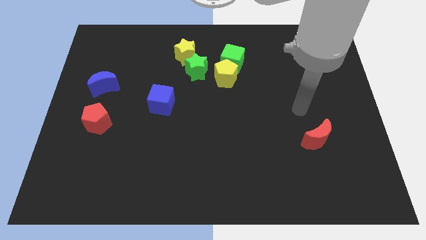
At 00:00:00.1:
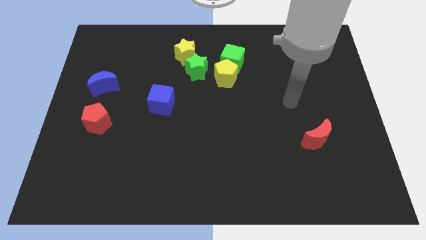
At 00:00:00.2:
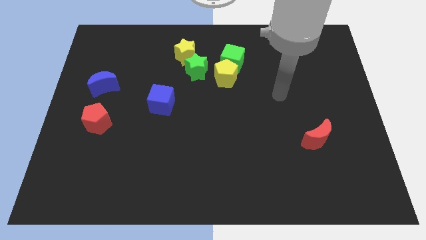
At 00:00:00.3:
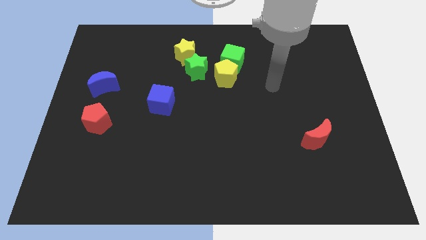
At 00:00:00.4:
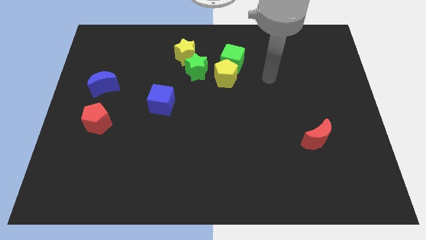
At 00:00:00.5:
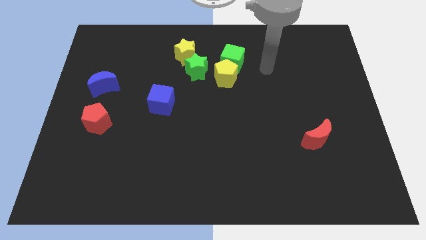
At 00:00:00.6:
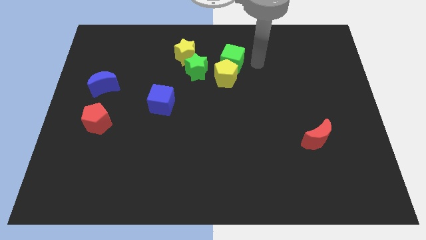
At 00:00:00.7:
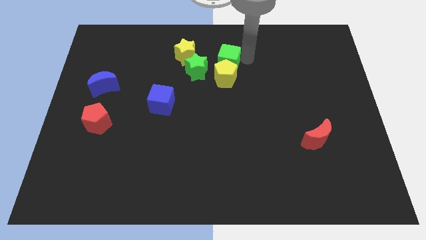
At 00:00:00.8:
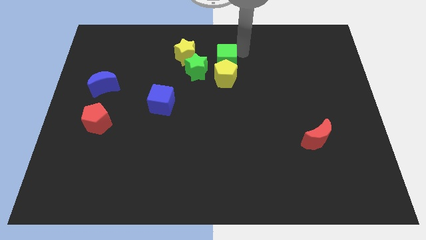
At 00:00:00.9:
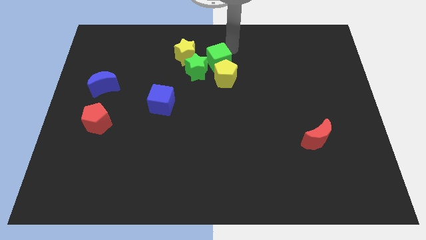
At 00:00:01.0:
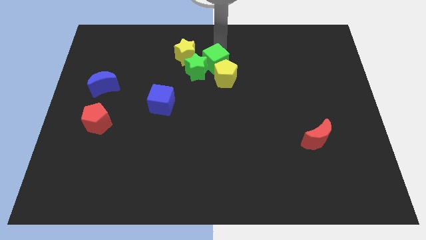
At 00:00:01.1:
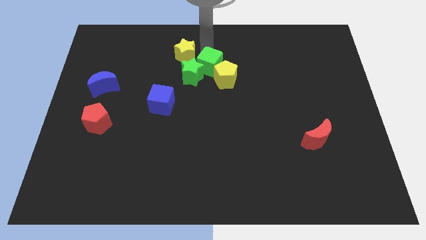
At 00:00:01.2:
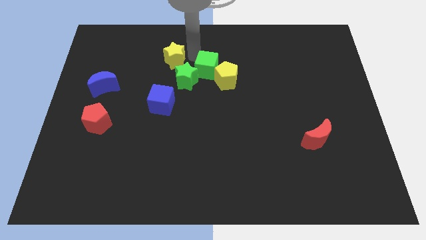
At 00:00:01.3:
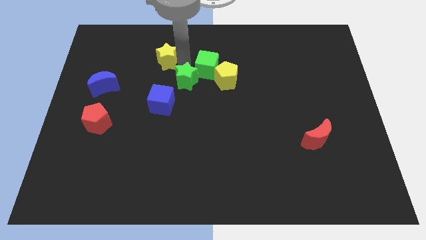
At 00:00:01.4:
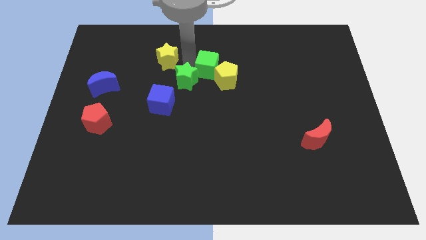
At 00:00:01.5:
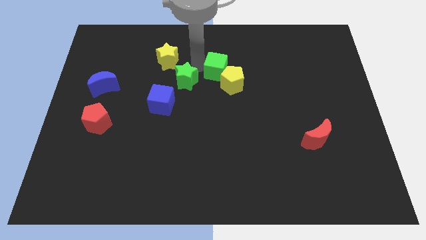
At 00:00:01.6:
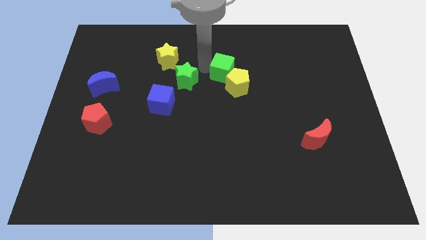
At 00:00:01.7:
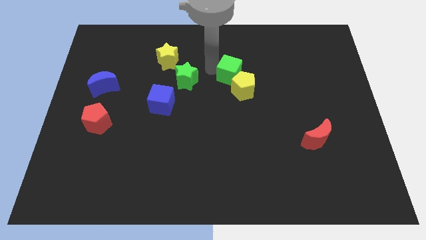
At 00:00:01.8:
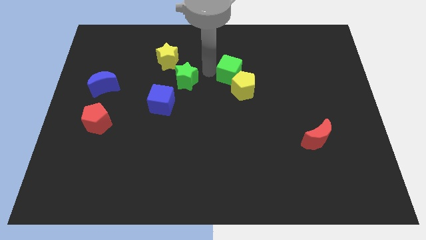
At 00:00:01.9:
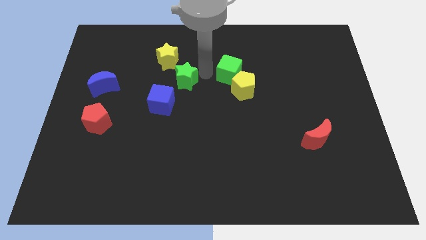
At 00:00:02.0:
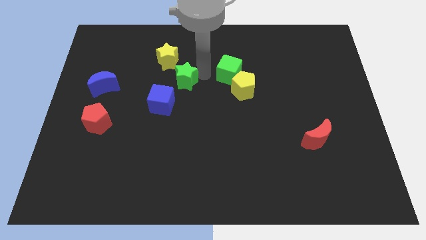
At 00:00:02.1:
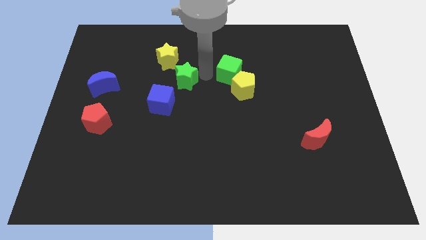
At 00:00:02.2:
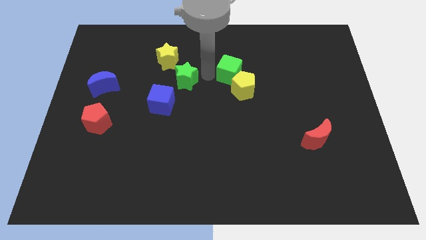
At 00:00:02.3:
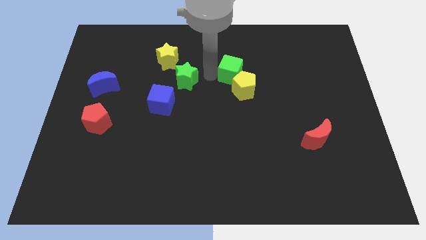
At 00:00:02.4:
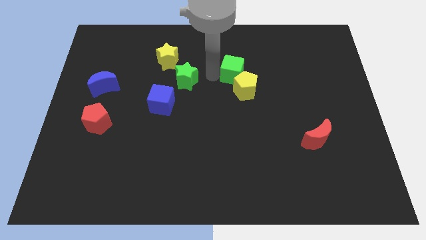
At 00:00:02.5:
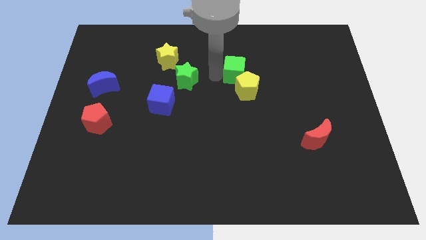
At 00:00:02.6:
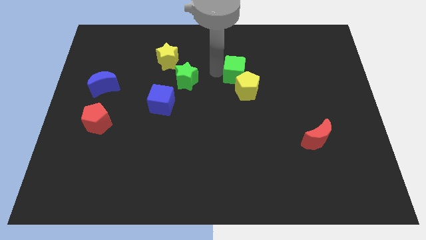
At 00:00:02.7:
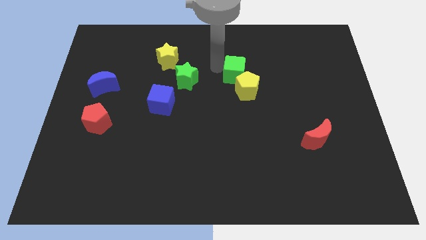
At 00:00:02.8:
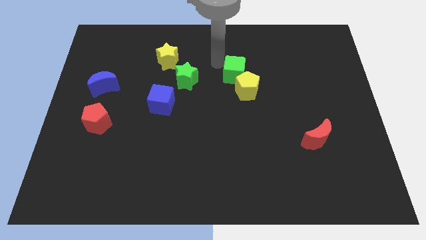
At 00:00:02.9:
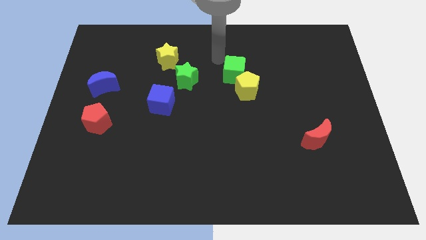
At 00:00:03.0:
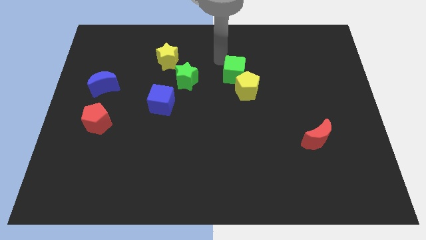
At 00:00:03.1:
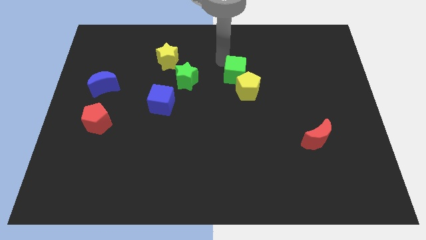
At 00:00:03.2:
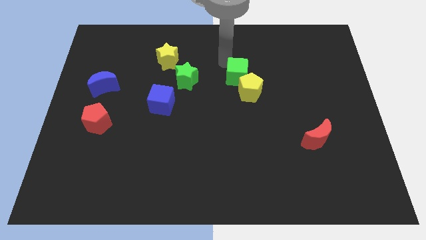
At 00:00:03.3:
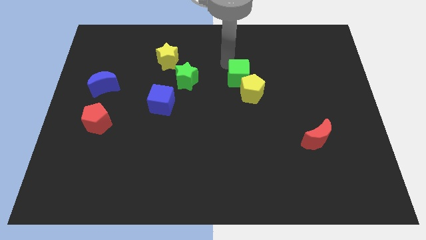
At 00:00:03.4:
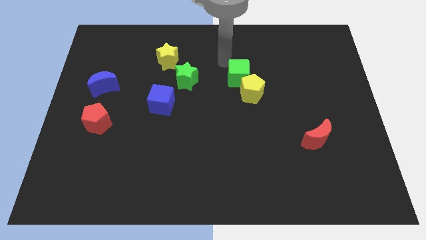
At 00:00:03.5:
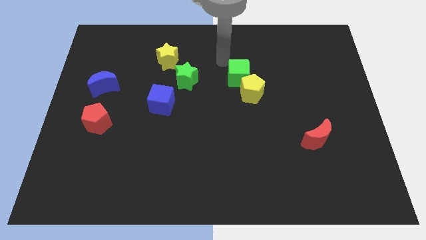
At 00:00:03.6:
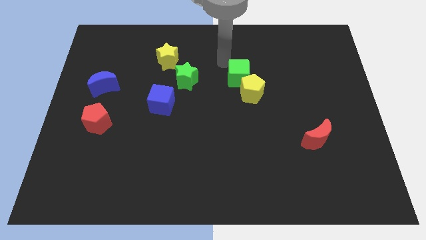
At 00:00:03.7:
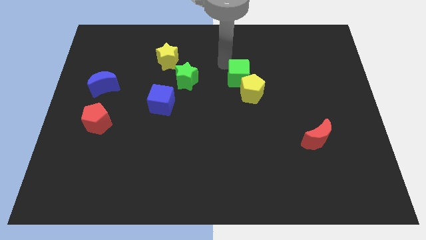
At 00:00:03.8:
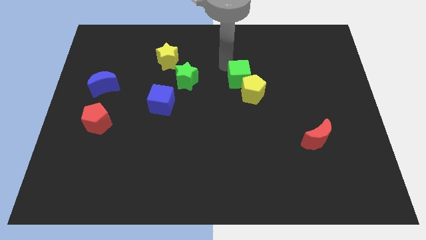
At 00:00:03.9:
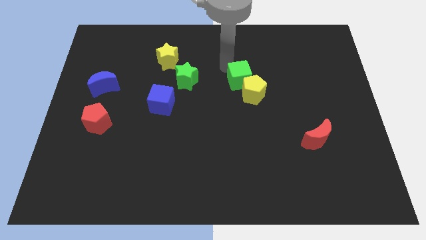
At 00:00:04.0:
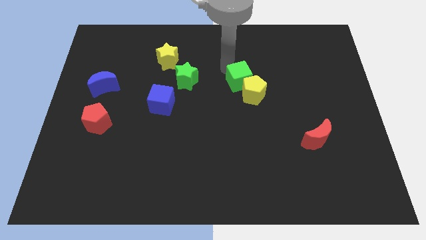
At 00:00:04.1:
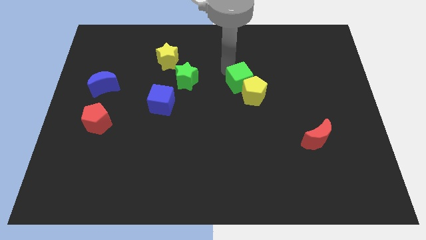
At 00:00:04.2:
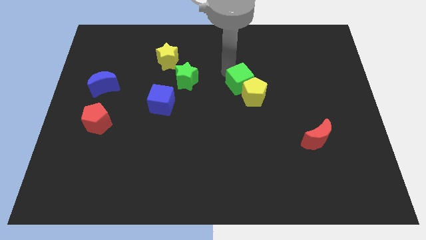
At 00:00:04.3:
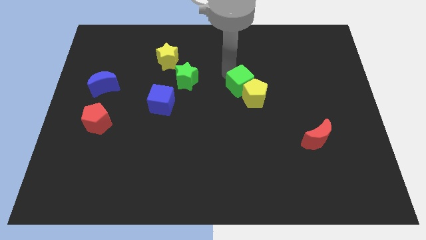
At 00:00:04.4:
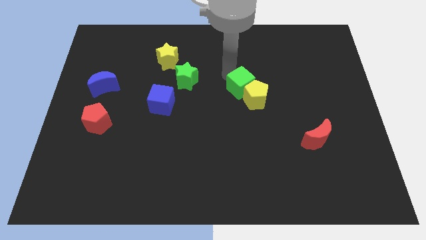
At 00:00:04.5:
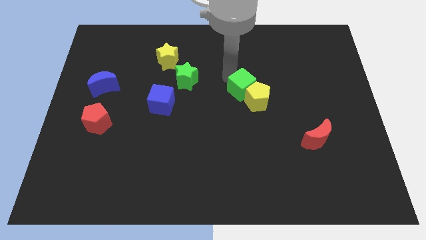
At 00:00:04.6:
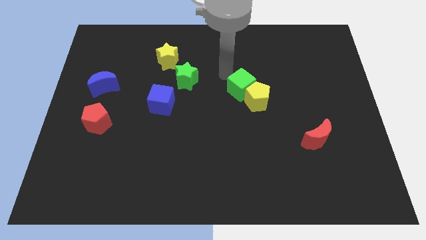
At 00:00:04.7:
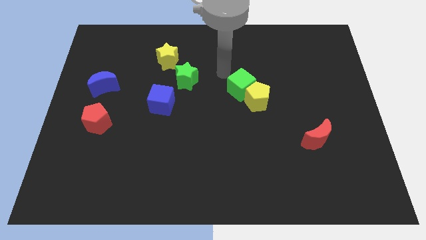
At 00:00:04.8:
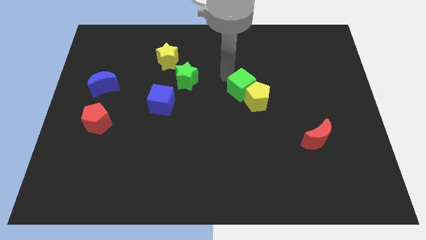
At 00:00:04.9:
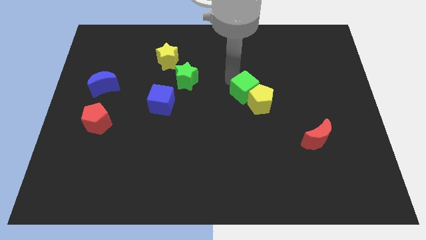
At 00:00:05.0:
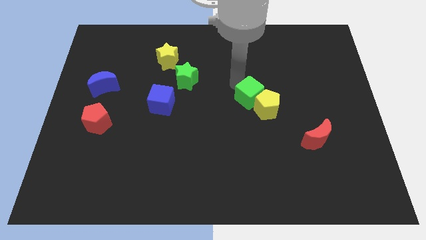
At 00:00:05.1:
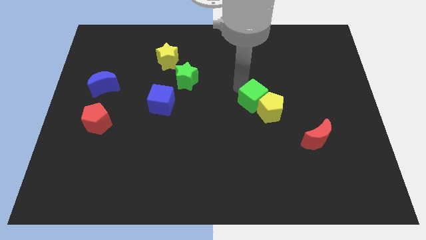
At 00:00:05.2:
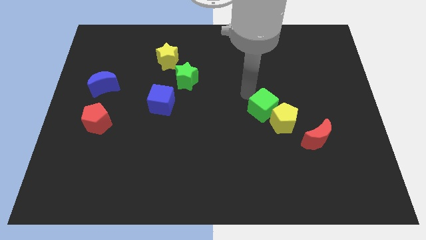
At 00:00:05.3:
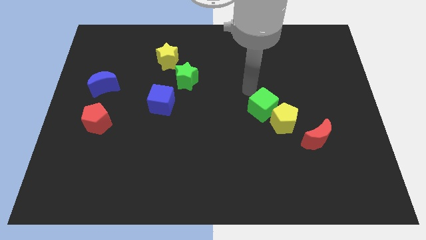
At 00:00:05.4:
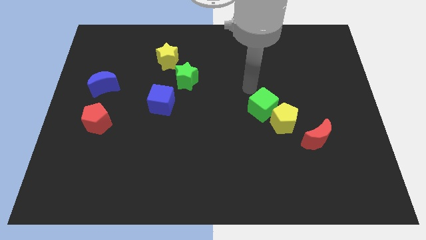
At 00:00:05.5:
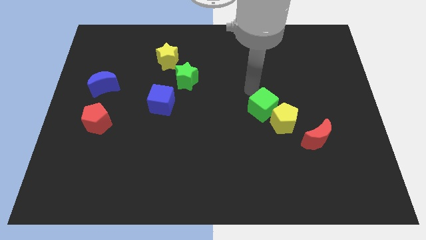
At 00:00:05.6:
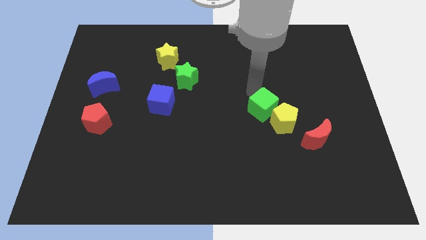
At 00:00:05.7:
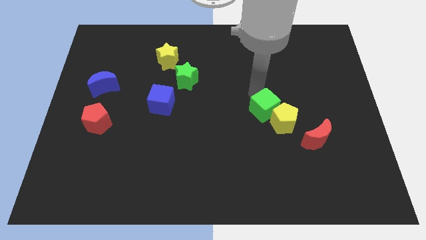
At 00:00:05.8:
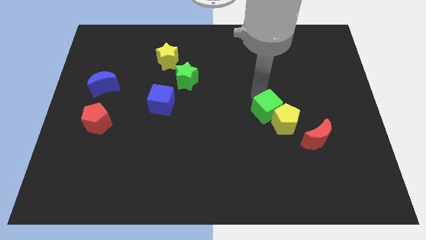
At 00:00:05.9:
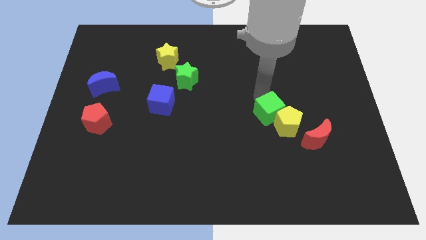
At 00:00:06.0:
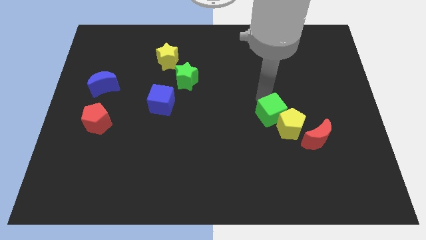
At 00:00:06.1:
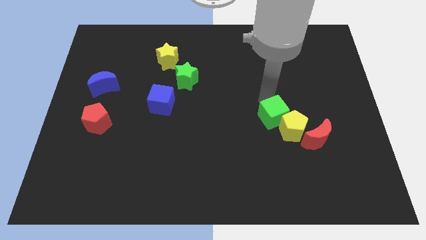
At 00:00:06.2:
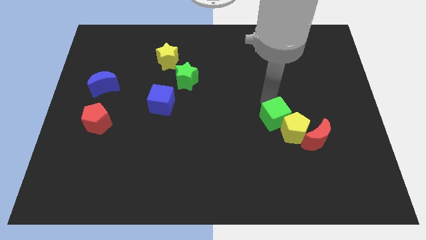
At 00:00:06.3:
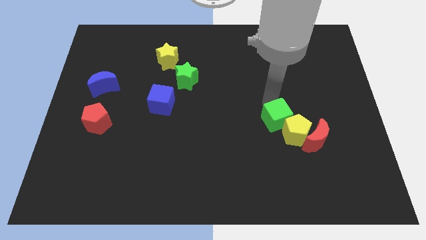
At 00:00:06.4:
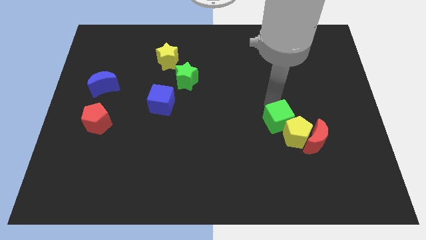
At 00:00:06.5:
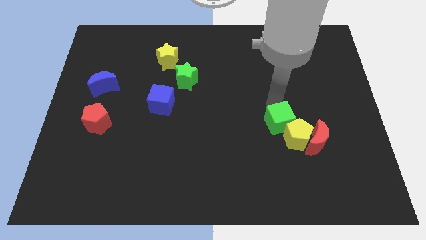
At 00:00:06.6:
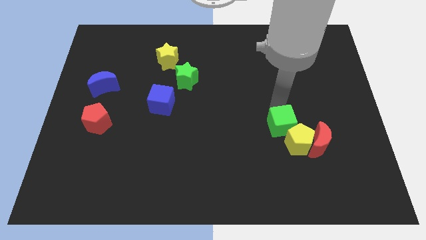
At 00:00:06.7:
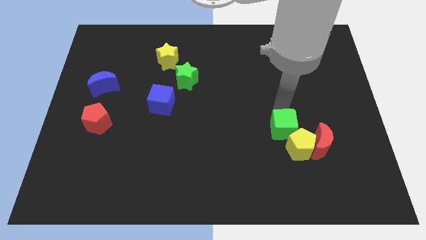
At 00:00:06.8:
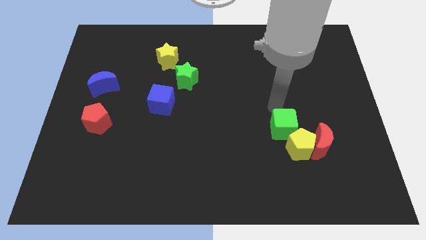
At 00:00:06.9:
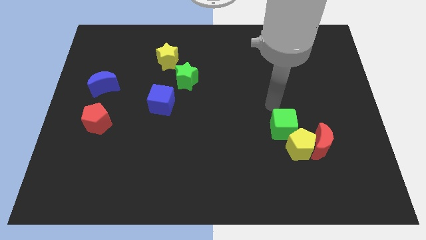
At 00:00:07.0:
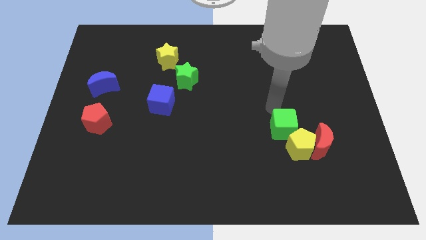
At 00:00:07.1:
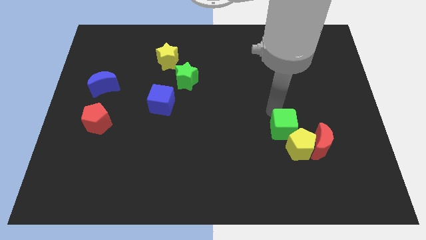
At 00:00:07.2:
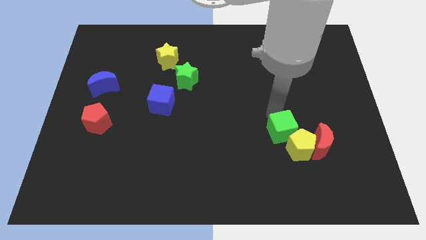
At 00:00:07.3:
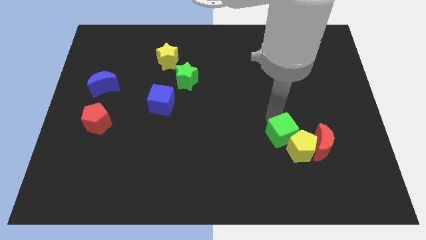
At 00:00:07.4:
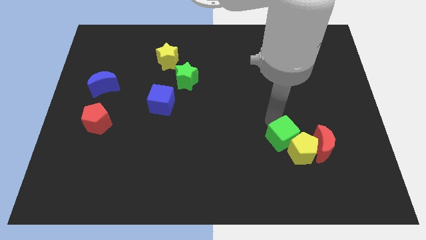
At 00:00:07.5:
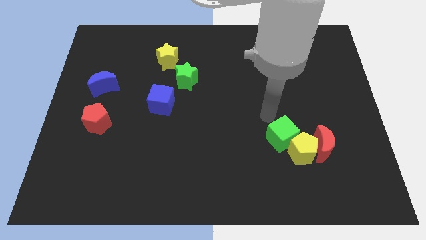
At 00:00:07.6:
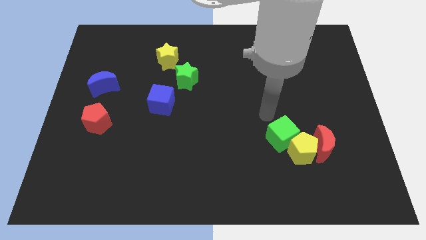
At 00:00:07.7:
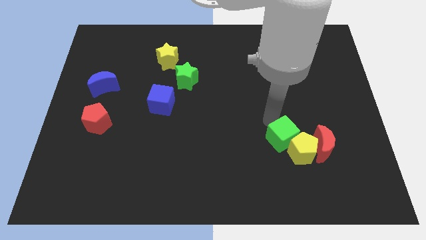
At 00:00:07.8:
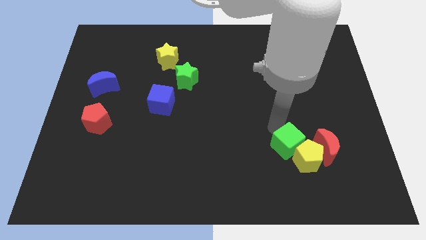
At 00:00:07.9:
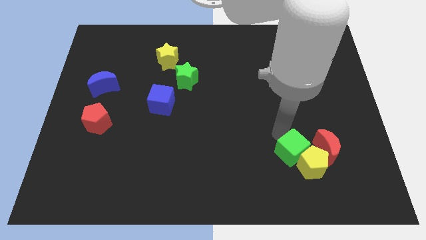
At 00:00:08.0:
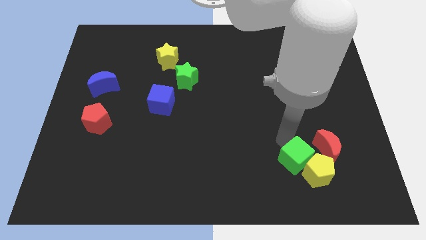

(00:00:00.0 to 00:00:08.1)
put the green cube to the bottom left of the red moon
